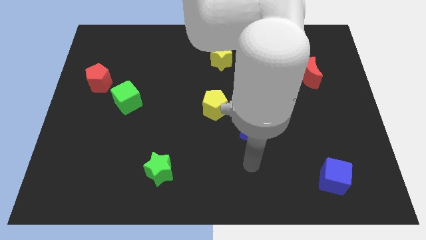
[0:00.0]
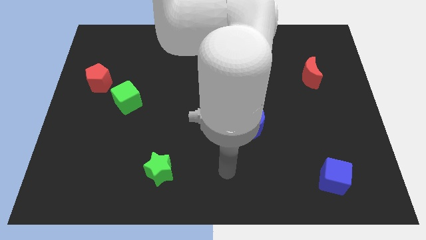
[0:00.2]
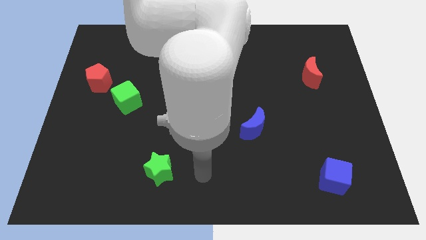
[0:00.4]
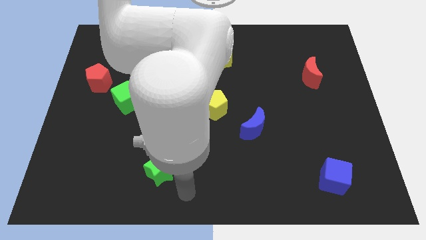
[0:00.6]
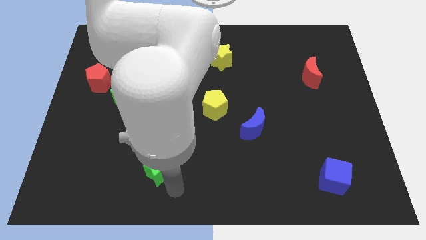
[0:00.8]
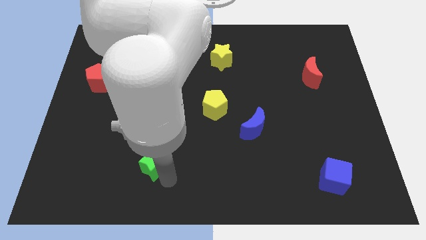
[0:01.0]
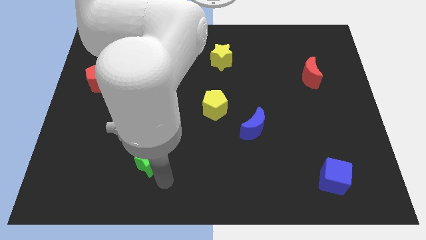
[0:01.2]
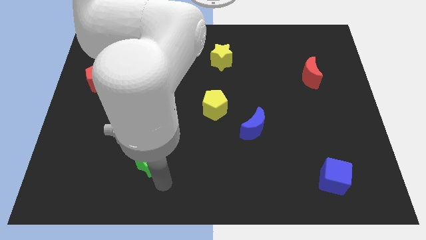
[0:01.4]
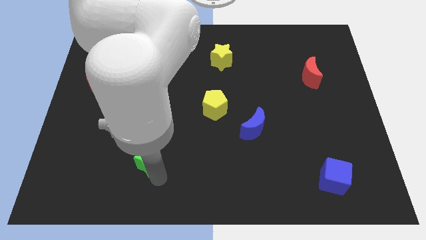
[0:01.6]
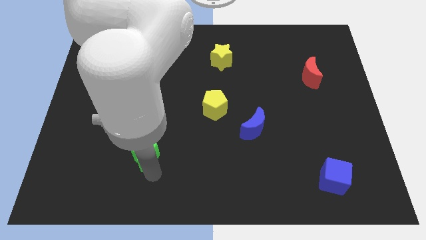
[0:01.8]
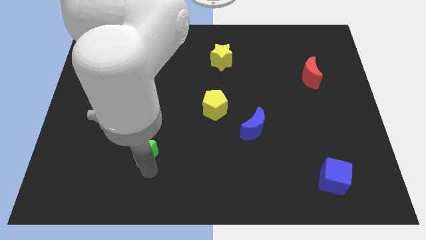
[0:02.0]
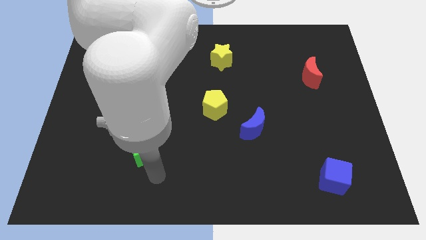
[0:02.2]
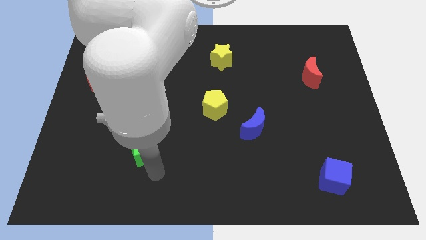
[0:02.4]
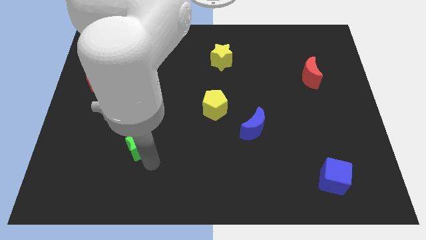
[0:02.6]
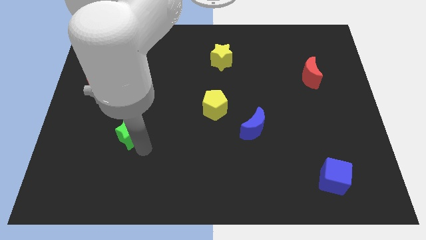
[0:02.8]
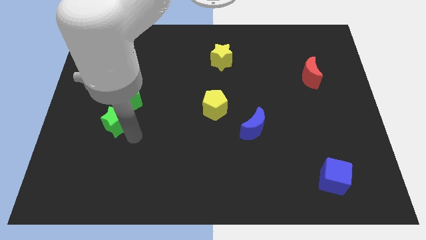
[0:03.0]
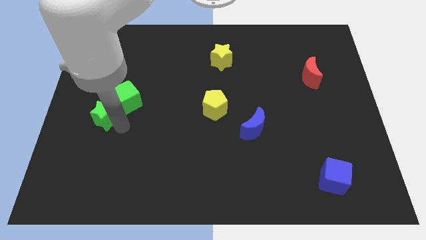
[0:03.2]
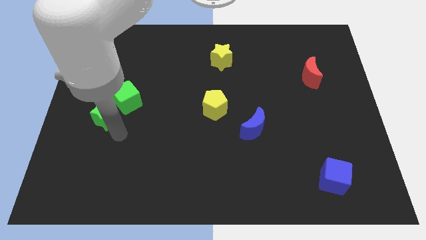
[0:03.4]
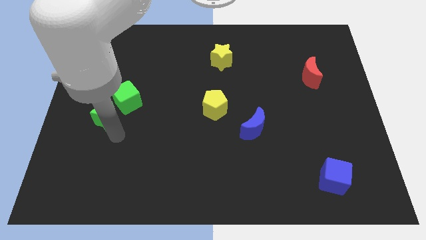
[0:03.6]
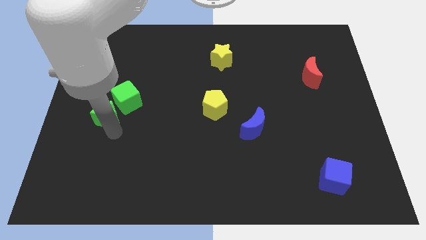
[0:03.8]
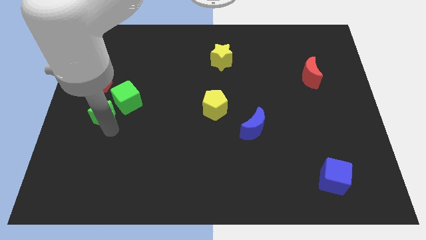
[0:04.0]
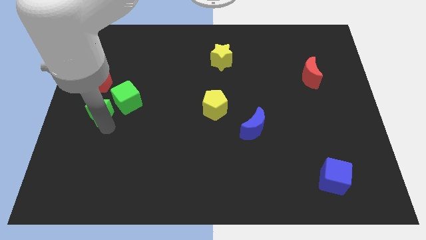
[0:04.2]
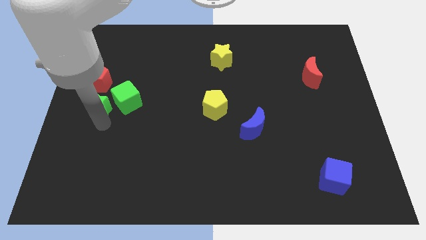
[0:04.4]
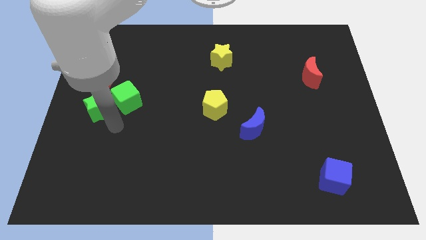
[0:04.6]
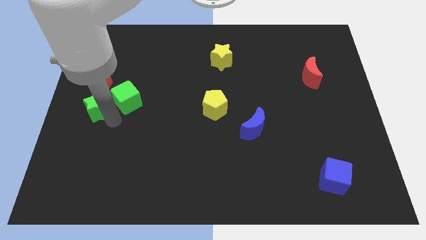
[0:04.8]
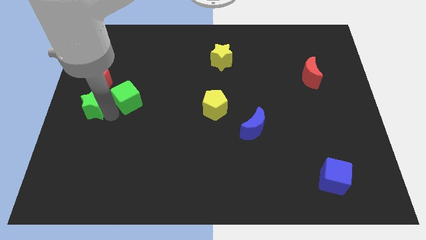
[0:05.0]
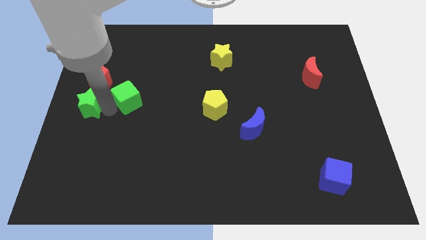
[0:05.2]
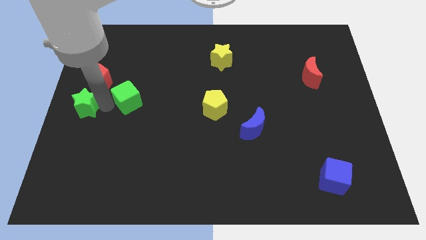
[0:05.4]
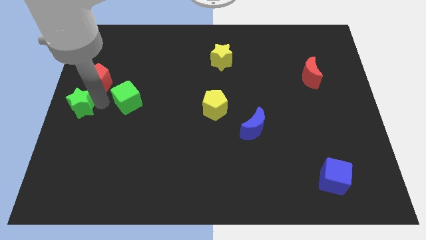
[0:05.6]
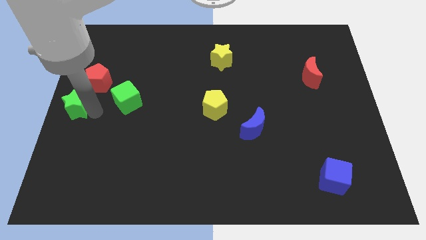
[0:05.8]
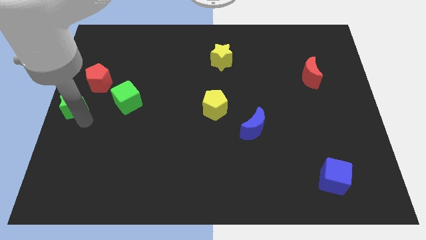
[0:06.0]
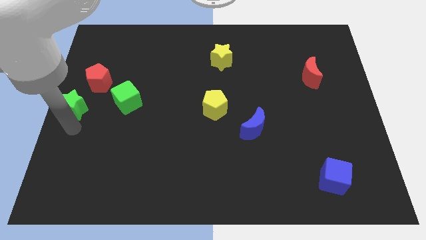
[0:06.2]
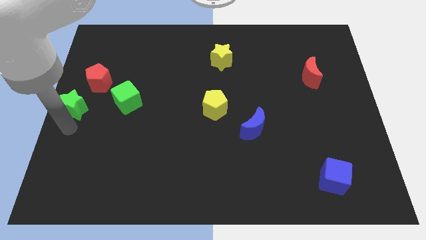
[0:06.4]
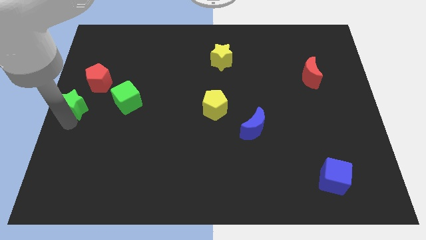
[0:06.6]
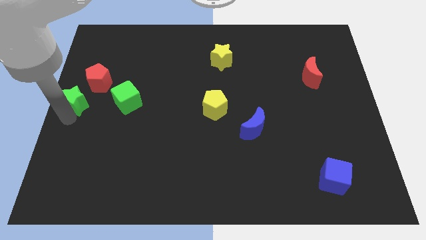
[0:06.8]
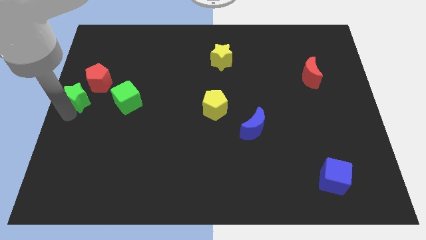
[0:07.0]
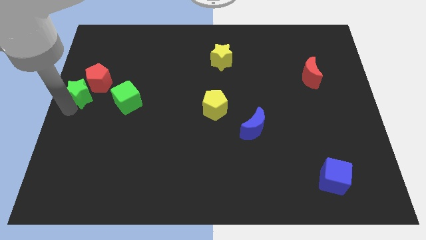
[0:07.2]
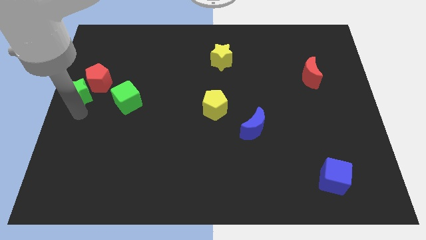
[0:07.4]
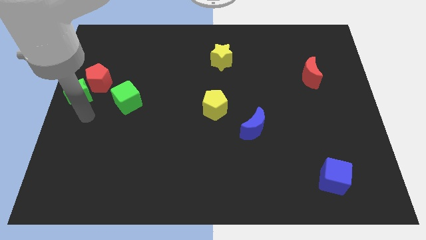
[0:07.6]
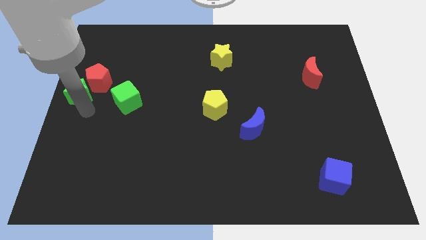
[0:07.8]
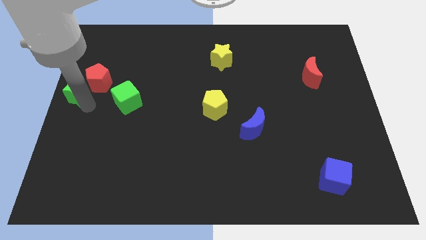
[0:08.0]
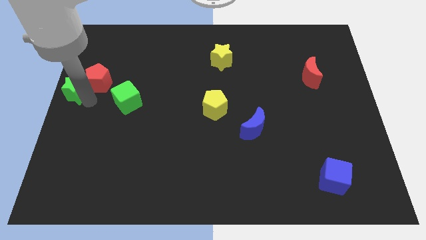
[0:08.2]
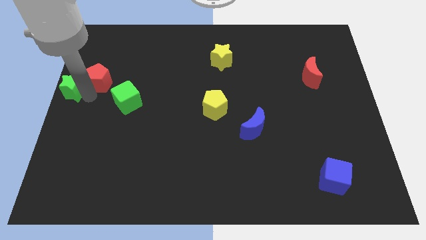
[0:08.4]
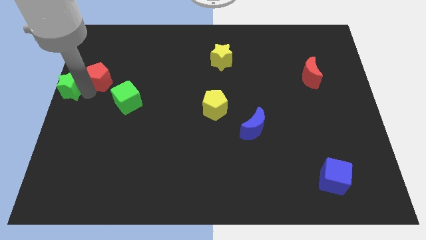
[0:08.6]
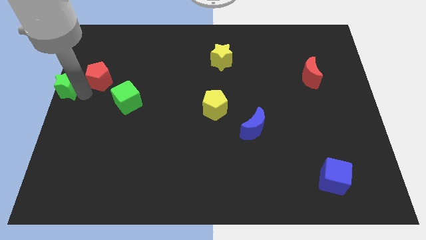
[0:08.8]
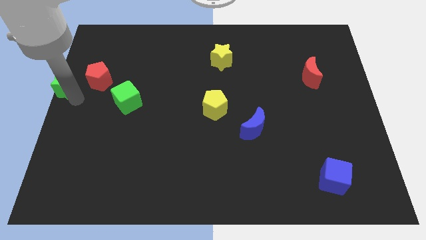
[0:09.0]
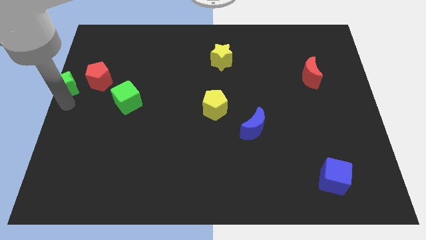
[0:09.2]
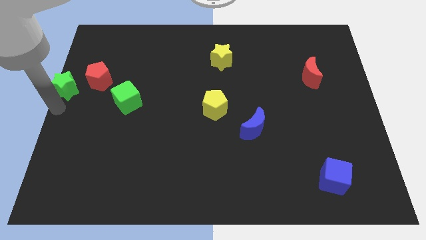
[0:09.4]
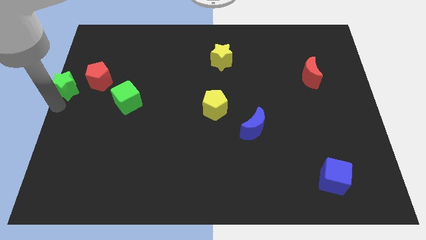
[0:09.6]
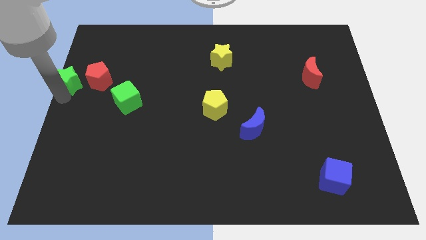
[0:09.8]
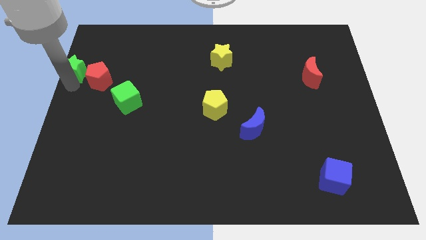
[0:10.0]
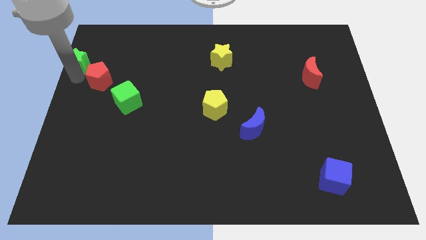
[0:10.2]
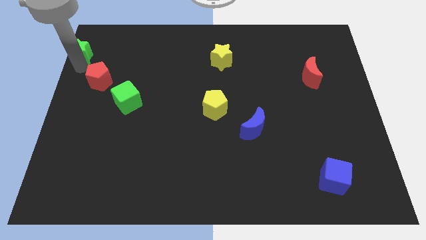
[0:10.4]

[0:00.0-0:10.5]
move the green star to the top left

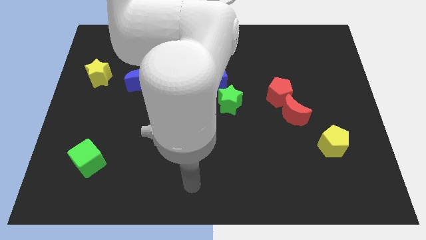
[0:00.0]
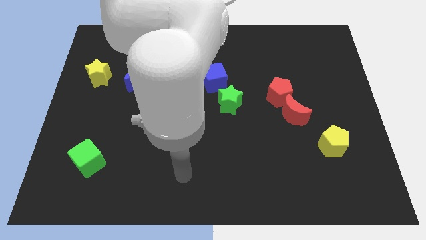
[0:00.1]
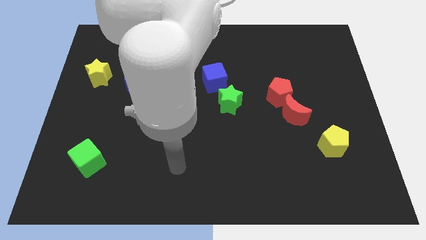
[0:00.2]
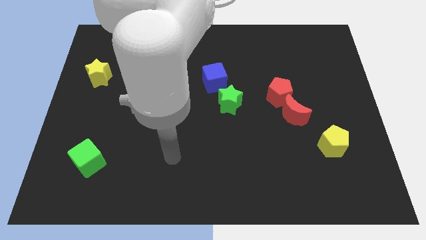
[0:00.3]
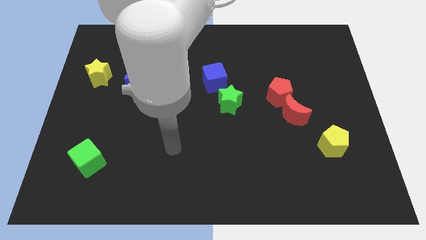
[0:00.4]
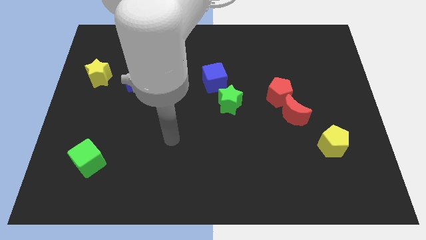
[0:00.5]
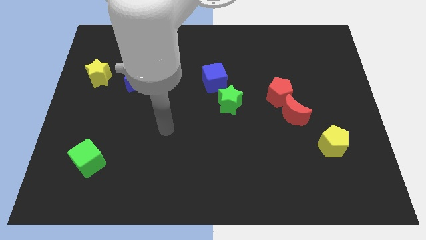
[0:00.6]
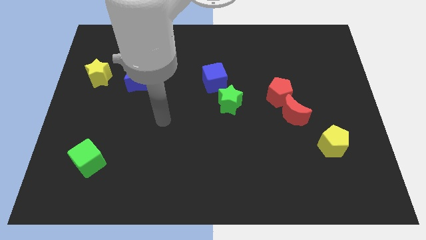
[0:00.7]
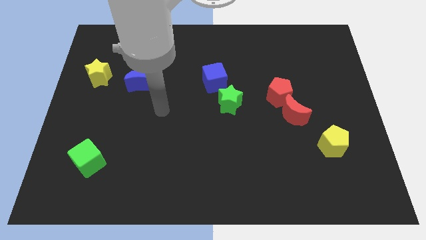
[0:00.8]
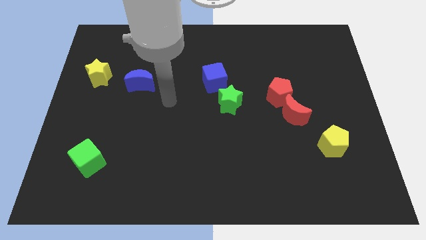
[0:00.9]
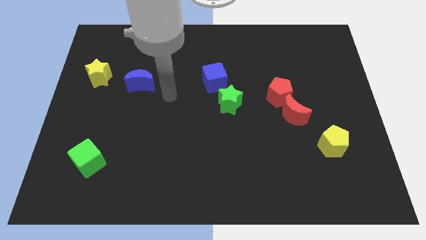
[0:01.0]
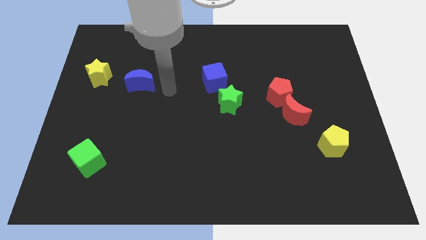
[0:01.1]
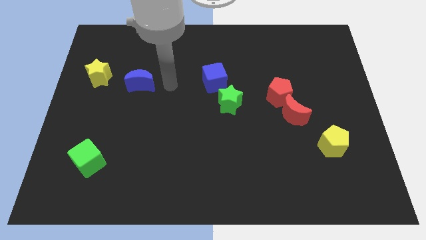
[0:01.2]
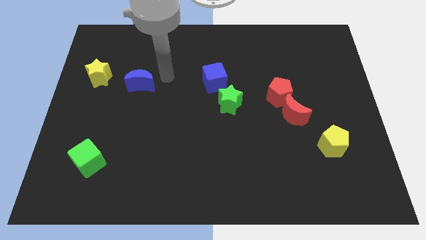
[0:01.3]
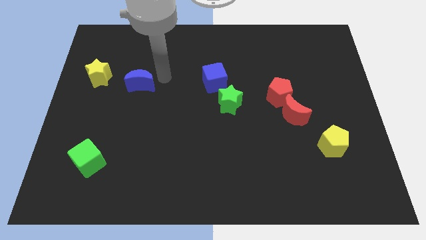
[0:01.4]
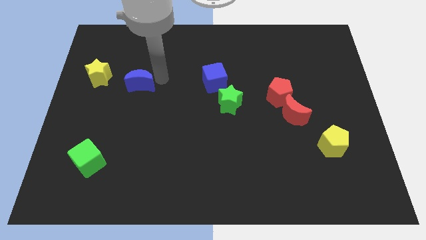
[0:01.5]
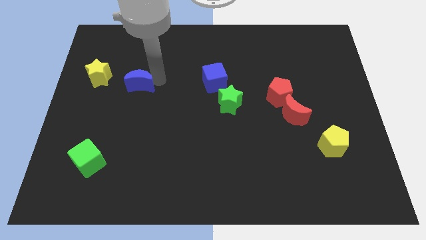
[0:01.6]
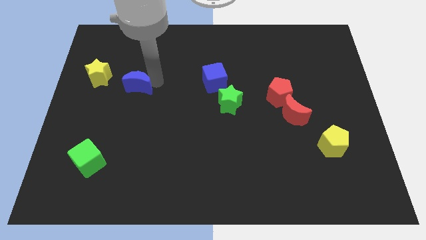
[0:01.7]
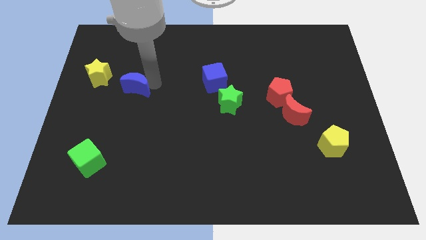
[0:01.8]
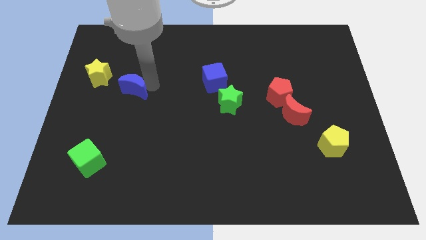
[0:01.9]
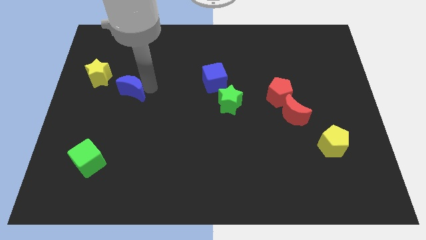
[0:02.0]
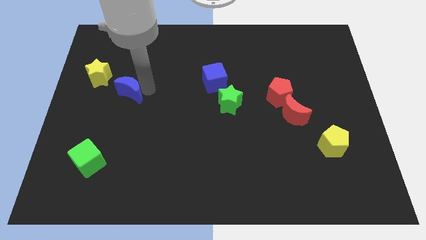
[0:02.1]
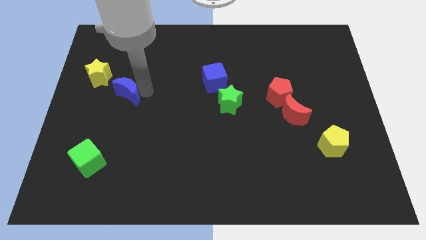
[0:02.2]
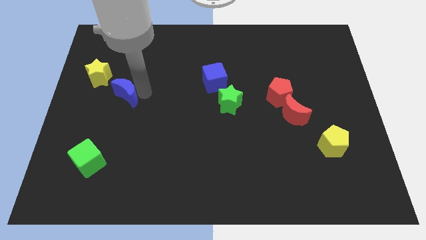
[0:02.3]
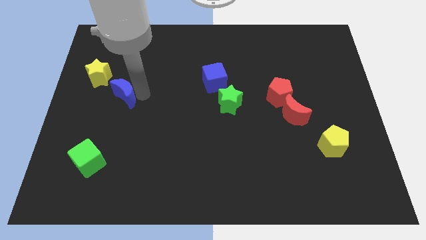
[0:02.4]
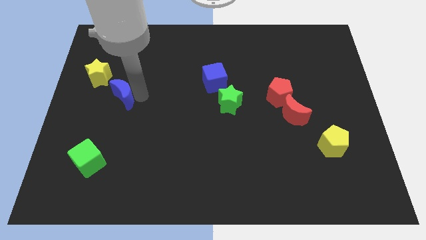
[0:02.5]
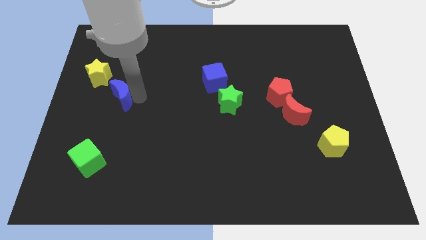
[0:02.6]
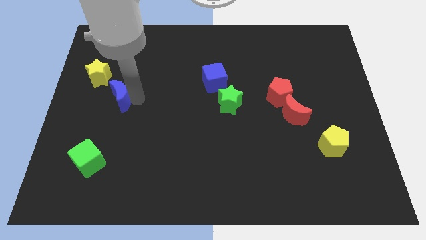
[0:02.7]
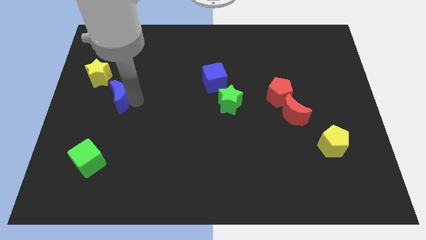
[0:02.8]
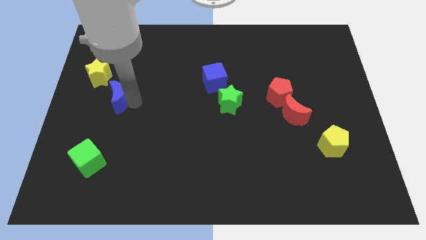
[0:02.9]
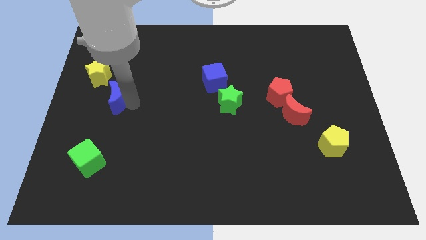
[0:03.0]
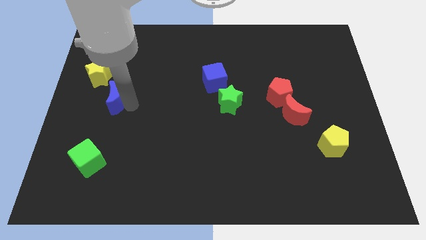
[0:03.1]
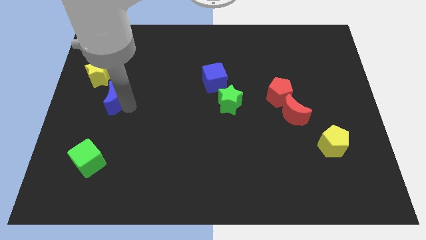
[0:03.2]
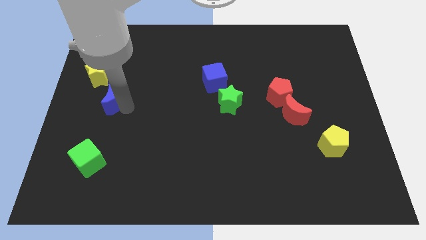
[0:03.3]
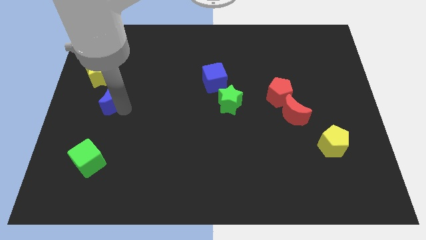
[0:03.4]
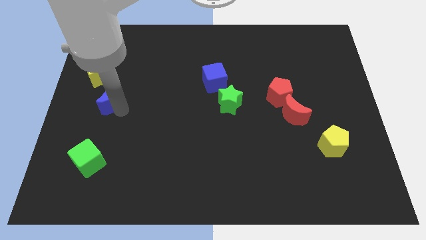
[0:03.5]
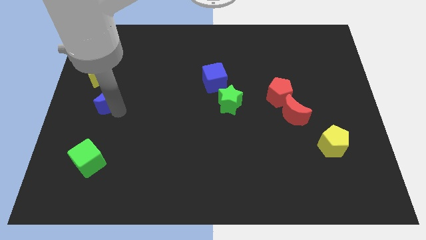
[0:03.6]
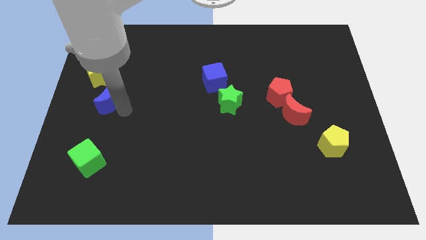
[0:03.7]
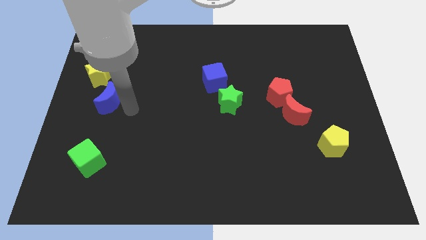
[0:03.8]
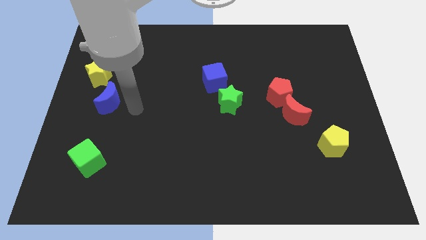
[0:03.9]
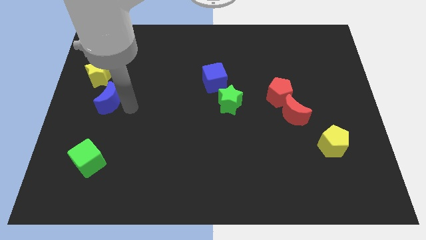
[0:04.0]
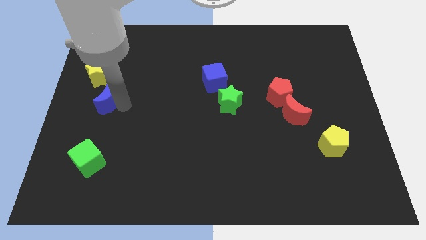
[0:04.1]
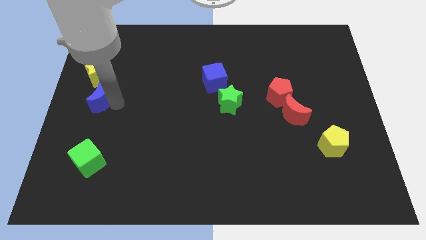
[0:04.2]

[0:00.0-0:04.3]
slide the blue moon to the center left
